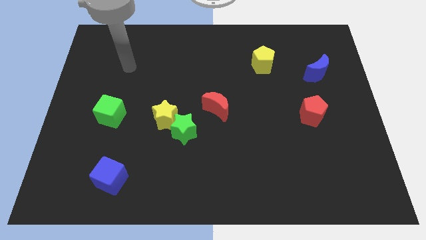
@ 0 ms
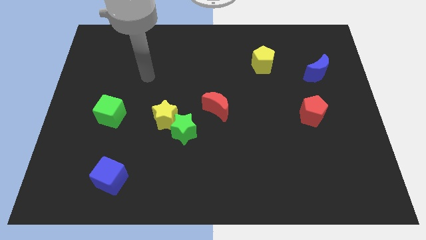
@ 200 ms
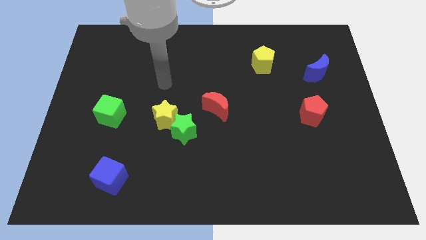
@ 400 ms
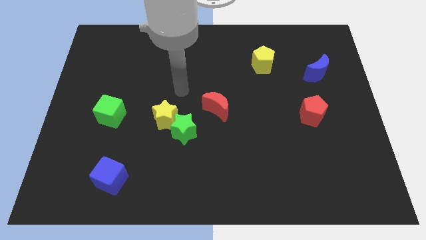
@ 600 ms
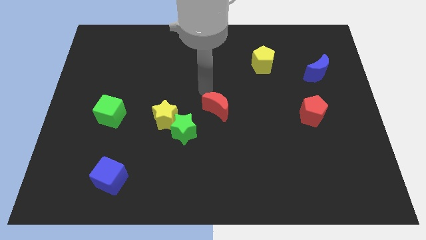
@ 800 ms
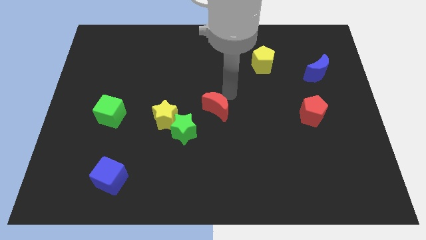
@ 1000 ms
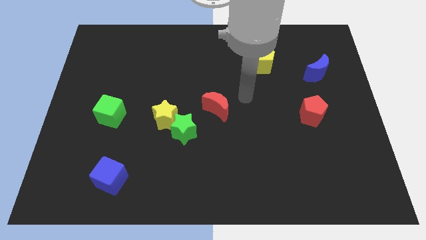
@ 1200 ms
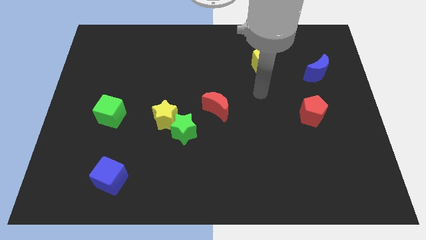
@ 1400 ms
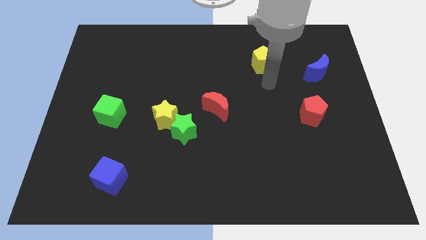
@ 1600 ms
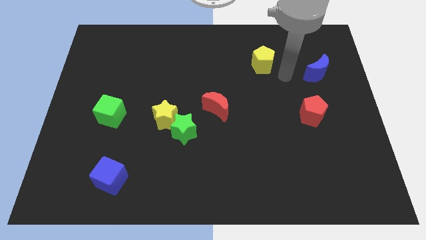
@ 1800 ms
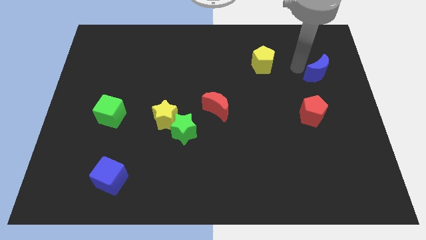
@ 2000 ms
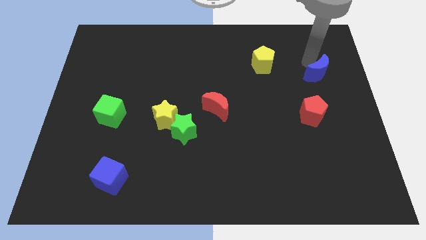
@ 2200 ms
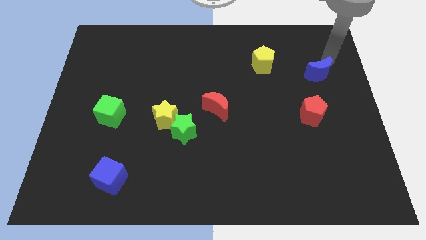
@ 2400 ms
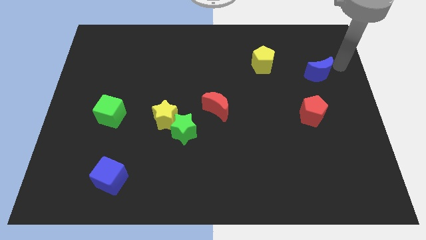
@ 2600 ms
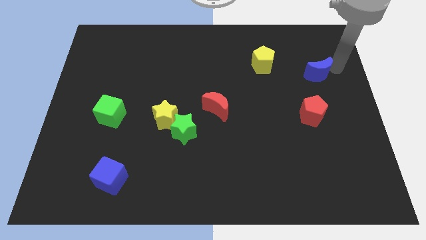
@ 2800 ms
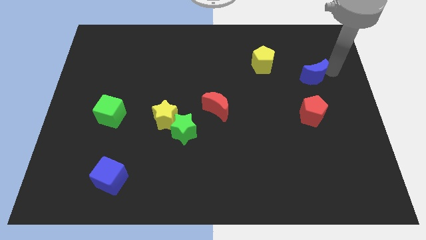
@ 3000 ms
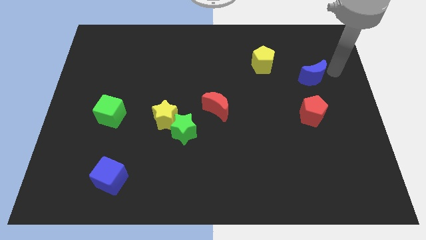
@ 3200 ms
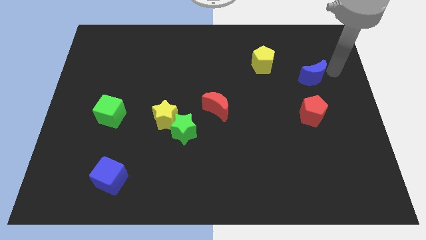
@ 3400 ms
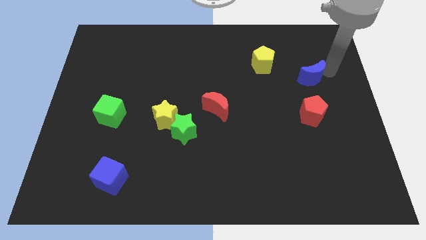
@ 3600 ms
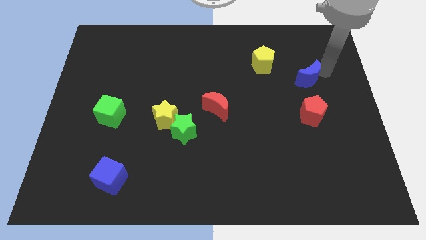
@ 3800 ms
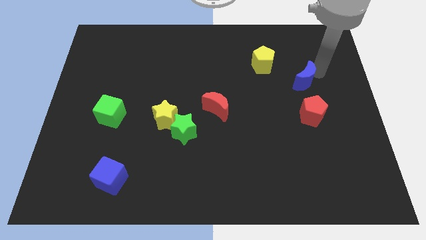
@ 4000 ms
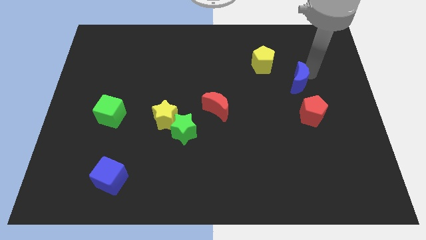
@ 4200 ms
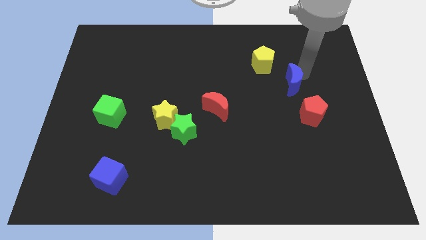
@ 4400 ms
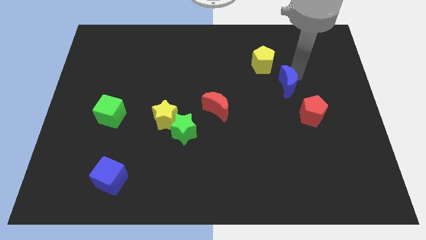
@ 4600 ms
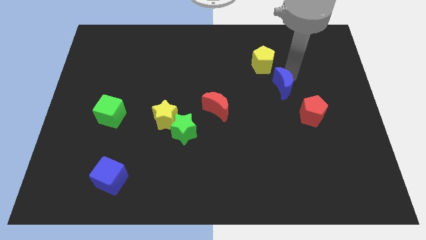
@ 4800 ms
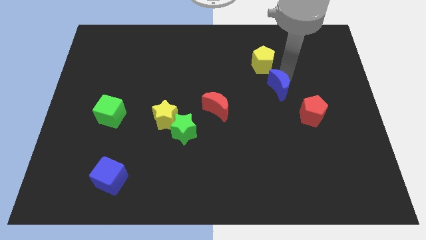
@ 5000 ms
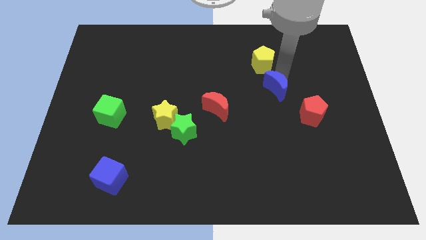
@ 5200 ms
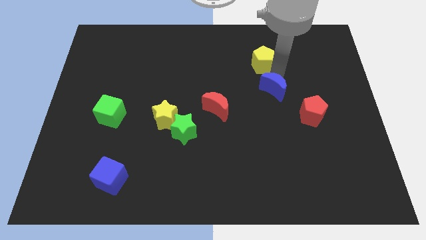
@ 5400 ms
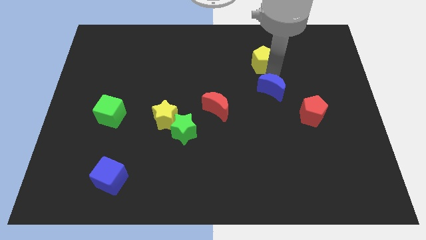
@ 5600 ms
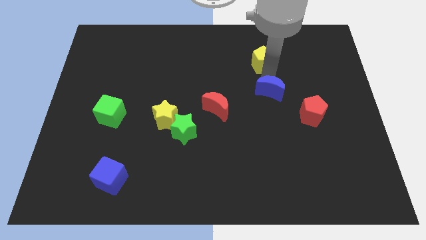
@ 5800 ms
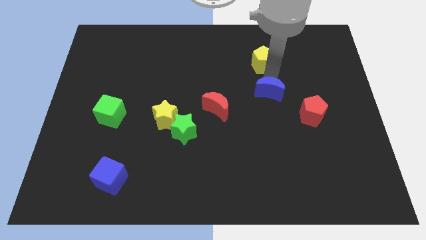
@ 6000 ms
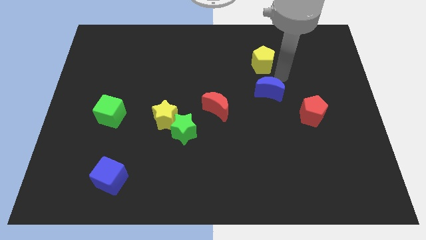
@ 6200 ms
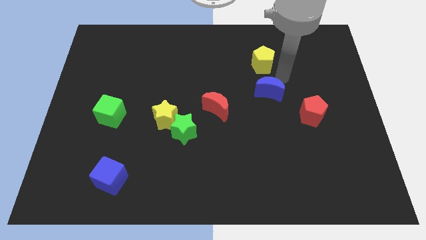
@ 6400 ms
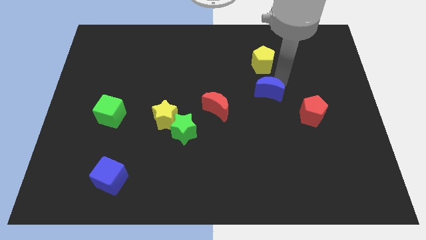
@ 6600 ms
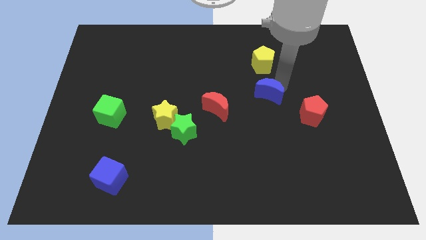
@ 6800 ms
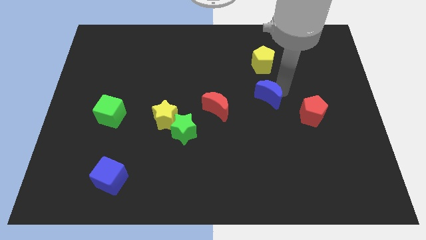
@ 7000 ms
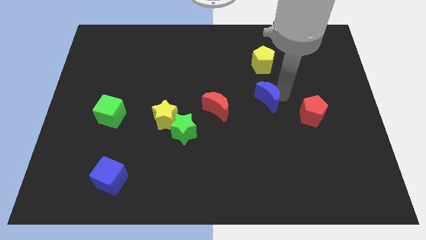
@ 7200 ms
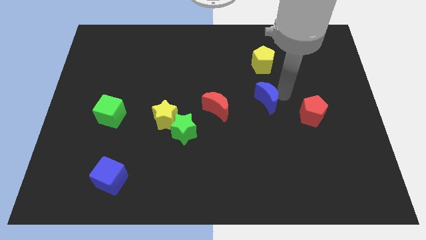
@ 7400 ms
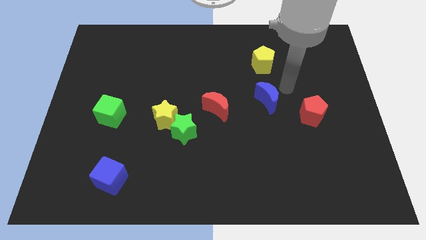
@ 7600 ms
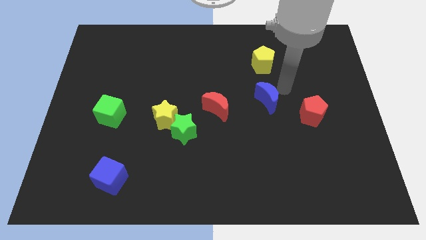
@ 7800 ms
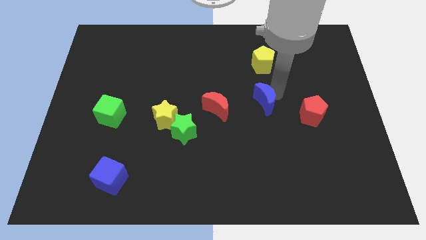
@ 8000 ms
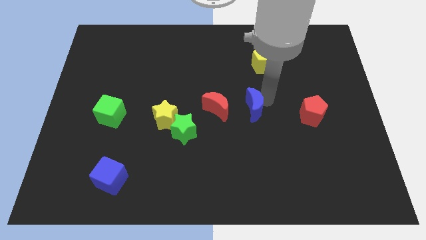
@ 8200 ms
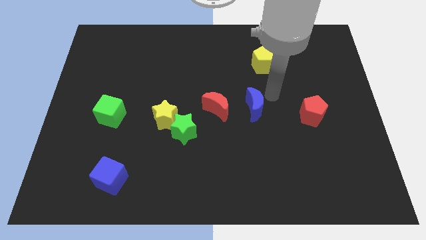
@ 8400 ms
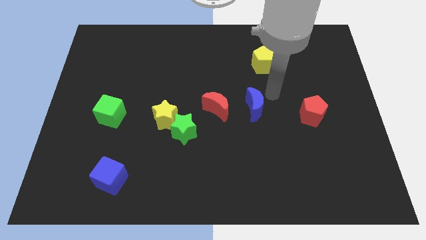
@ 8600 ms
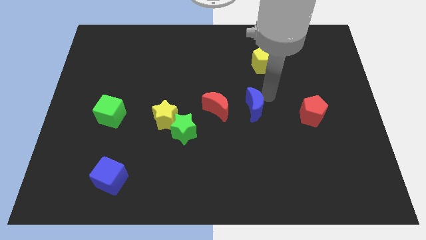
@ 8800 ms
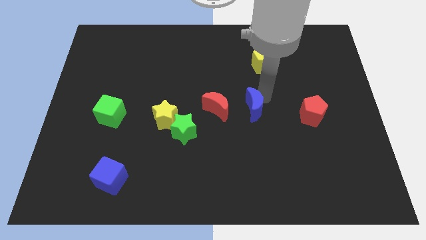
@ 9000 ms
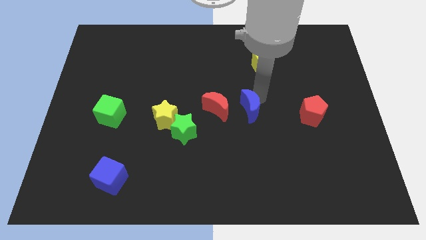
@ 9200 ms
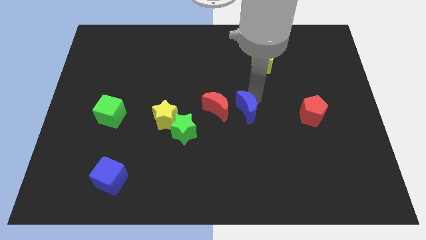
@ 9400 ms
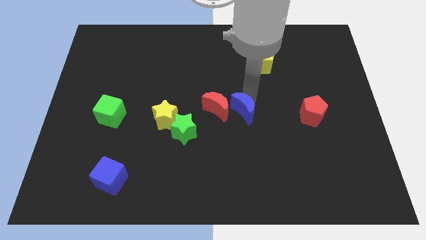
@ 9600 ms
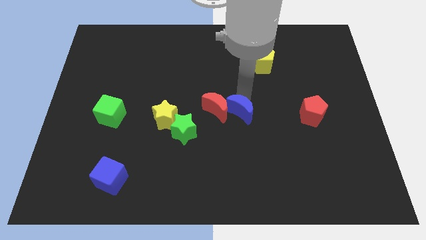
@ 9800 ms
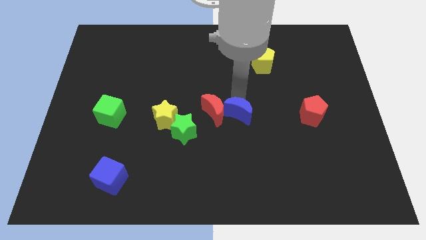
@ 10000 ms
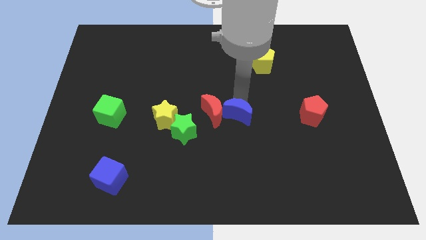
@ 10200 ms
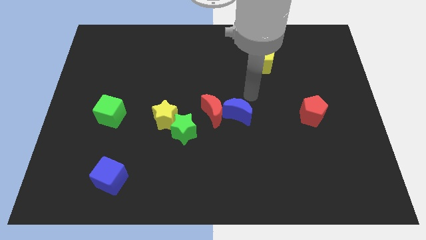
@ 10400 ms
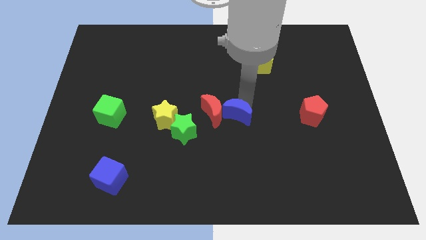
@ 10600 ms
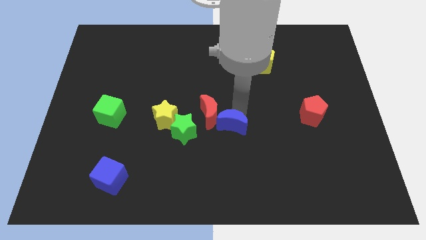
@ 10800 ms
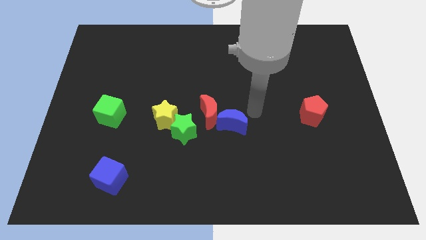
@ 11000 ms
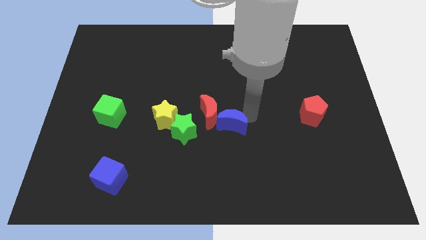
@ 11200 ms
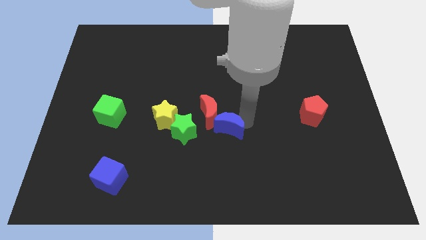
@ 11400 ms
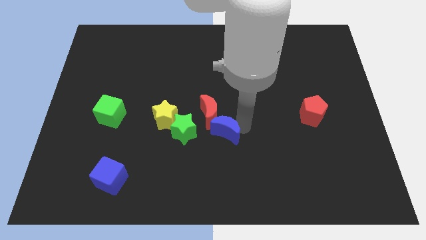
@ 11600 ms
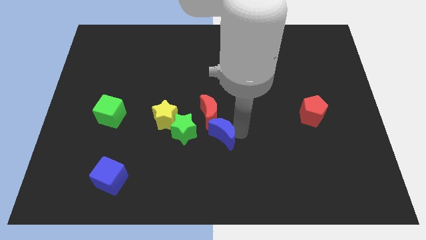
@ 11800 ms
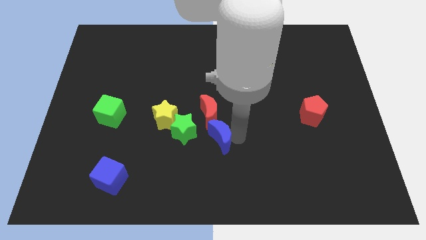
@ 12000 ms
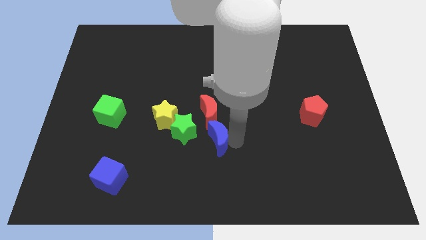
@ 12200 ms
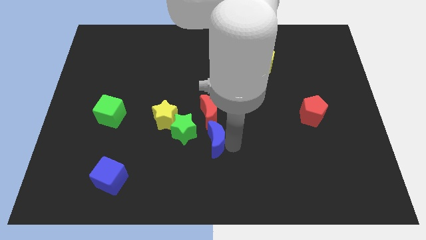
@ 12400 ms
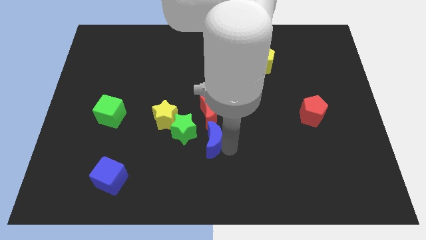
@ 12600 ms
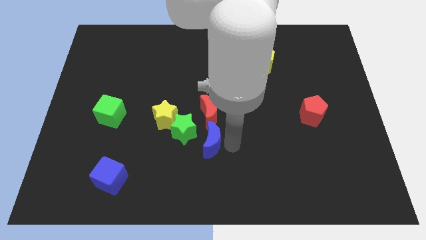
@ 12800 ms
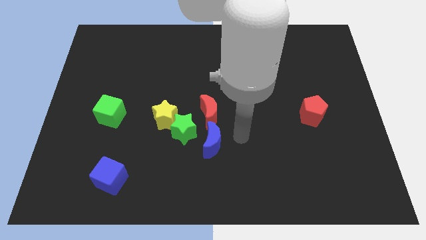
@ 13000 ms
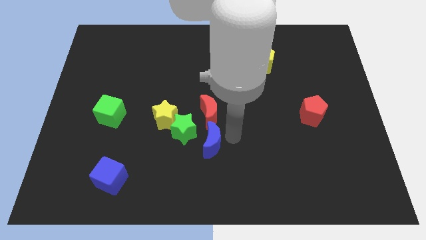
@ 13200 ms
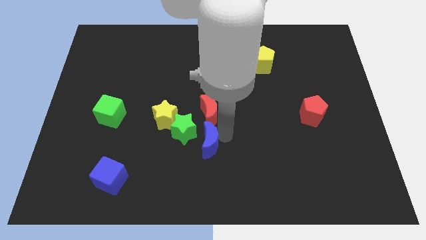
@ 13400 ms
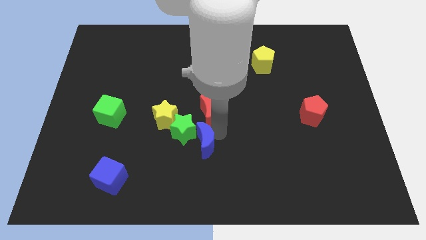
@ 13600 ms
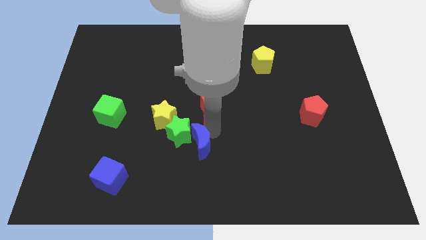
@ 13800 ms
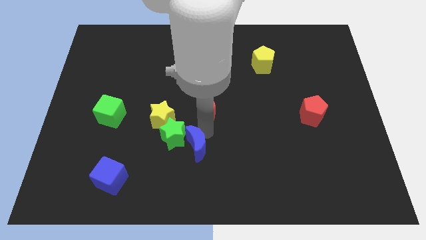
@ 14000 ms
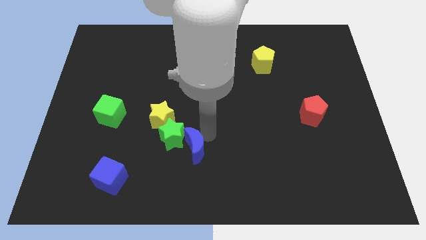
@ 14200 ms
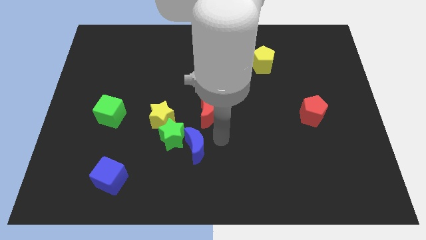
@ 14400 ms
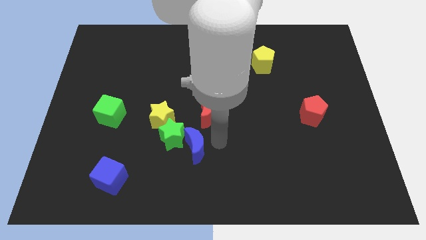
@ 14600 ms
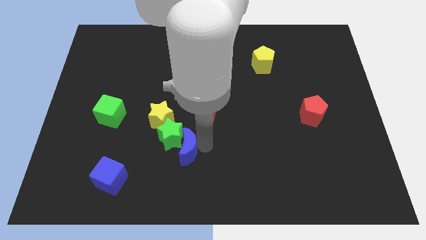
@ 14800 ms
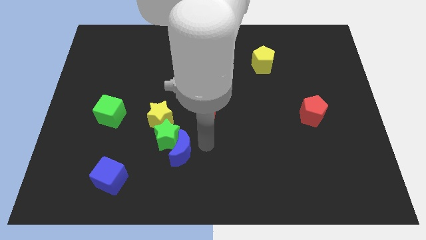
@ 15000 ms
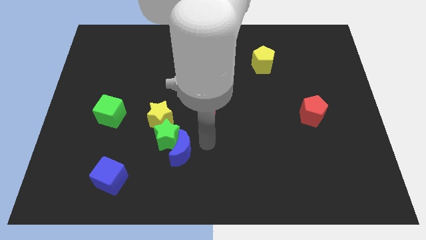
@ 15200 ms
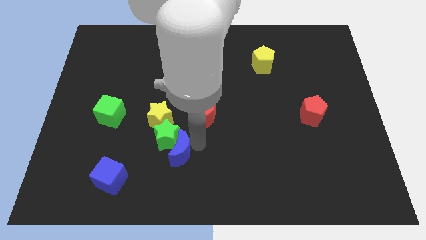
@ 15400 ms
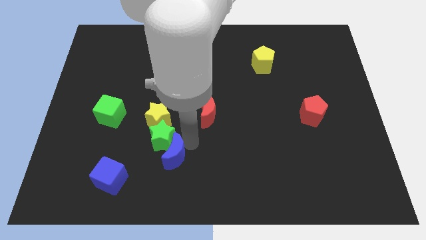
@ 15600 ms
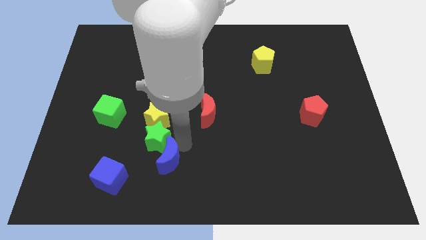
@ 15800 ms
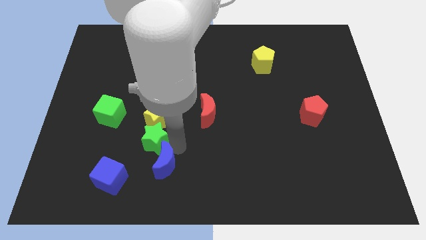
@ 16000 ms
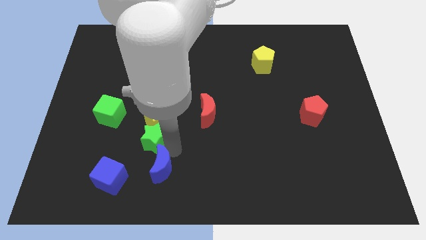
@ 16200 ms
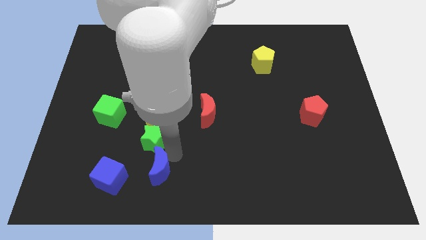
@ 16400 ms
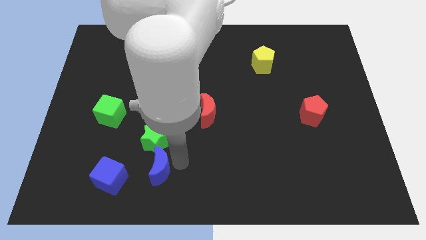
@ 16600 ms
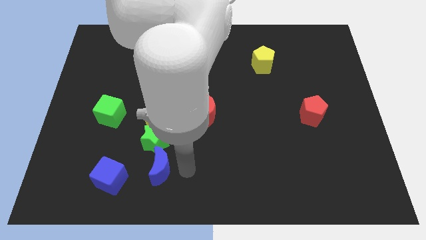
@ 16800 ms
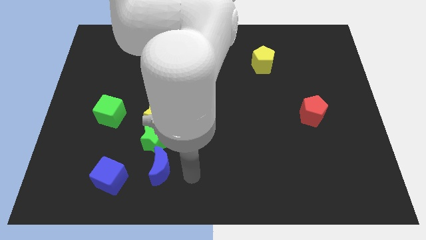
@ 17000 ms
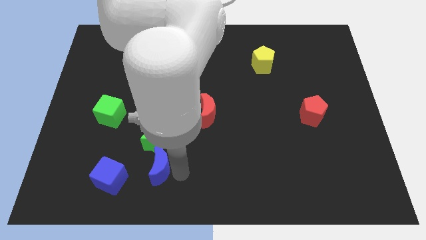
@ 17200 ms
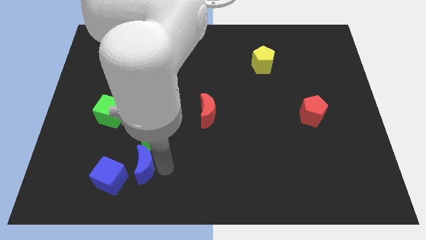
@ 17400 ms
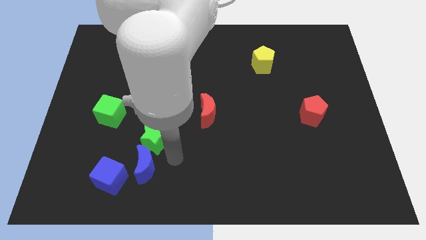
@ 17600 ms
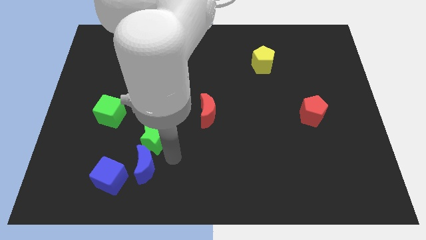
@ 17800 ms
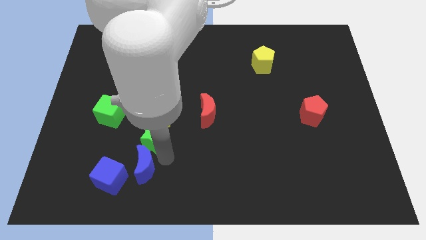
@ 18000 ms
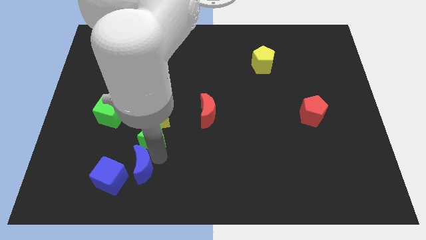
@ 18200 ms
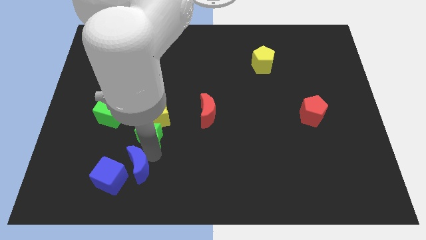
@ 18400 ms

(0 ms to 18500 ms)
slide the blue moon close to the blue cube
